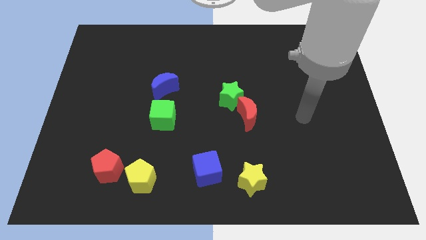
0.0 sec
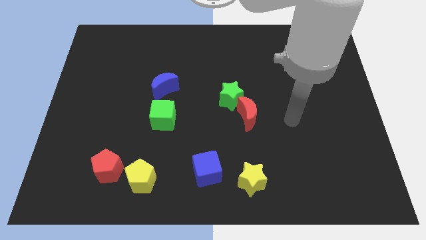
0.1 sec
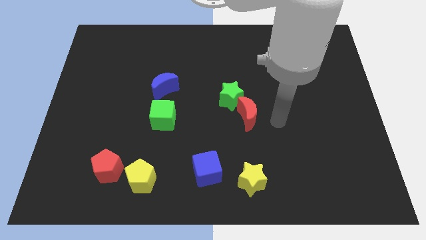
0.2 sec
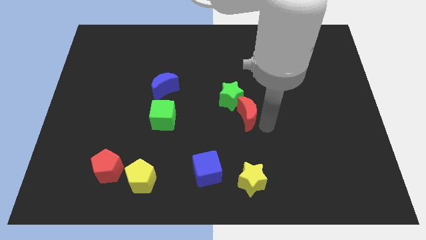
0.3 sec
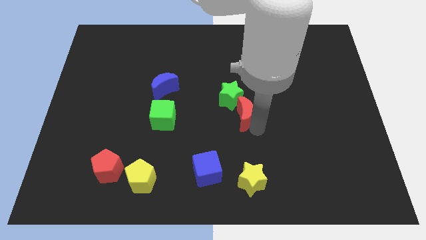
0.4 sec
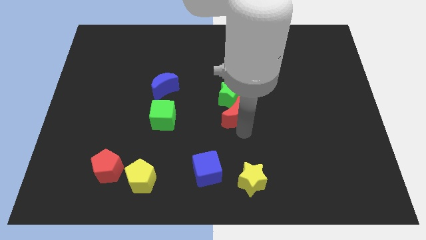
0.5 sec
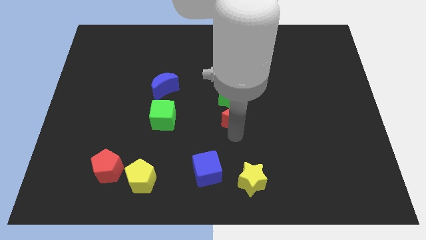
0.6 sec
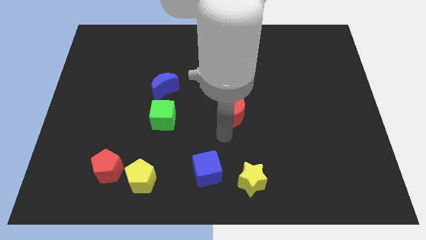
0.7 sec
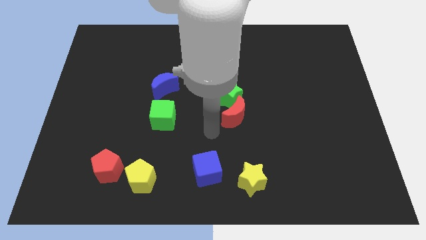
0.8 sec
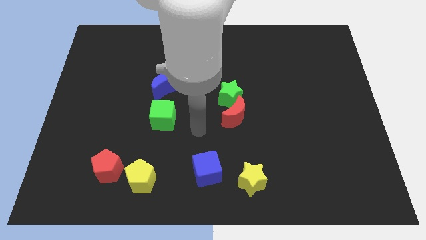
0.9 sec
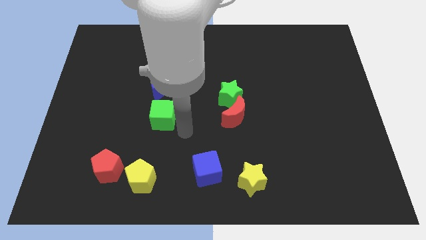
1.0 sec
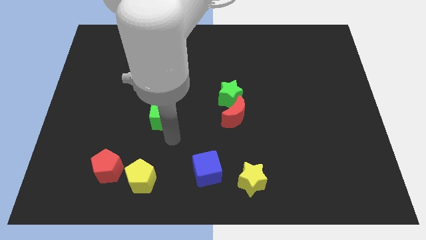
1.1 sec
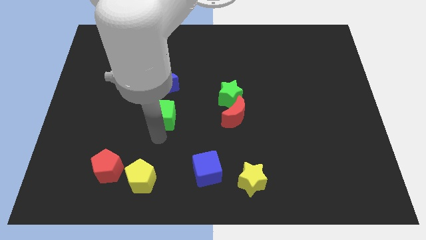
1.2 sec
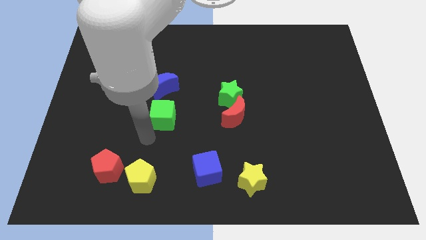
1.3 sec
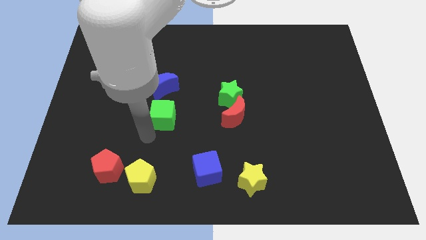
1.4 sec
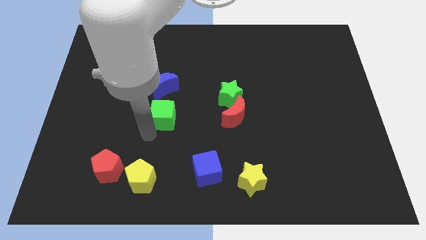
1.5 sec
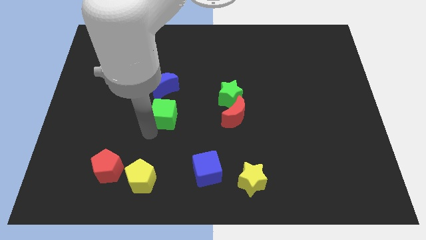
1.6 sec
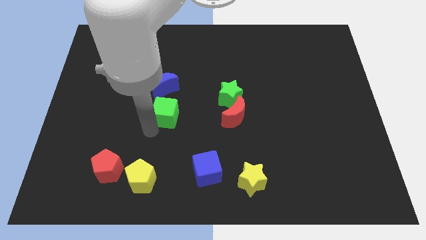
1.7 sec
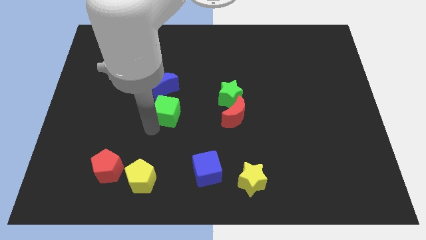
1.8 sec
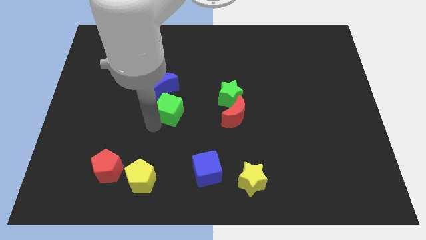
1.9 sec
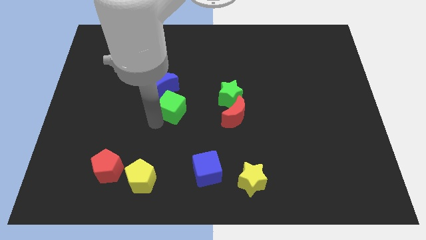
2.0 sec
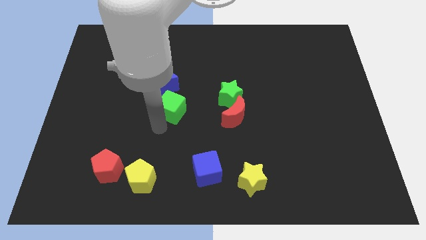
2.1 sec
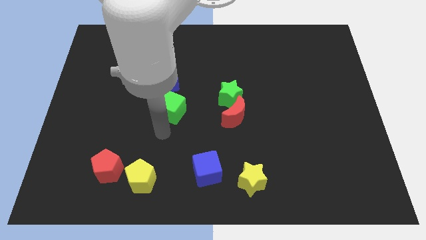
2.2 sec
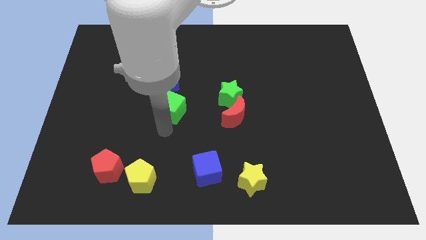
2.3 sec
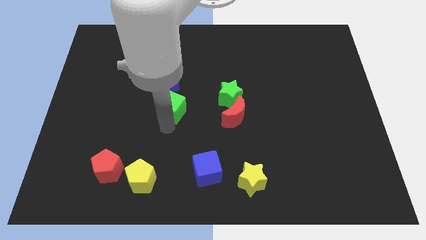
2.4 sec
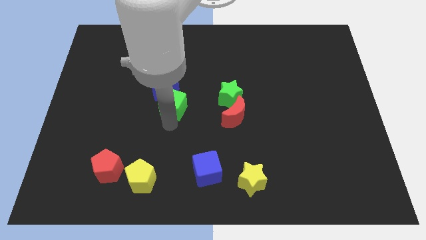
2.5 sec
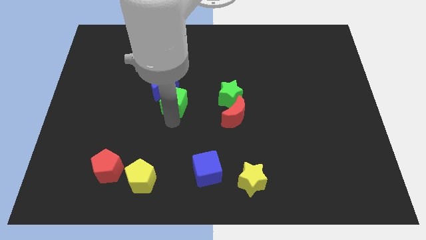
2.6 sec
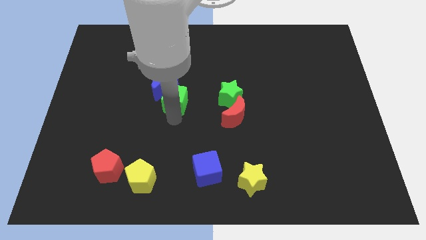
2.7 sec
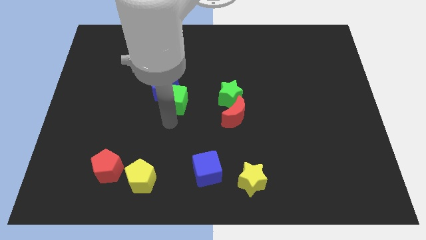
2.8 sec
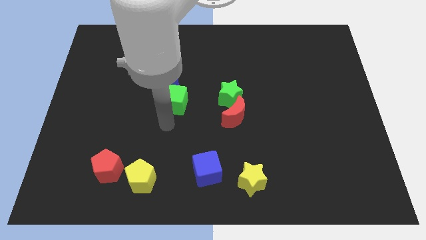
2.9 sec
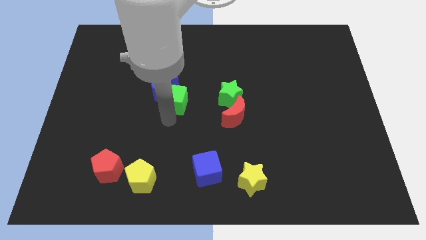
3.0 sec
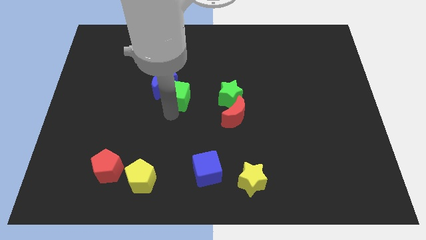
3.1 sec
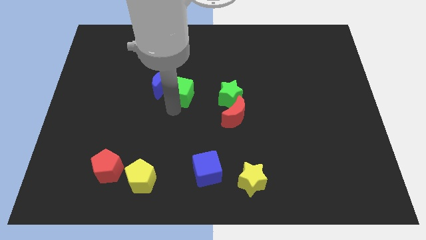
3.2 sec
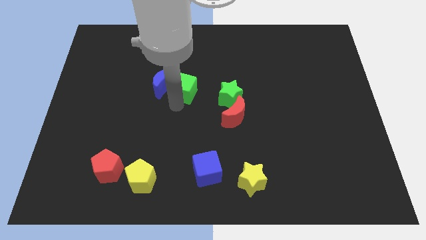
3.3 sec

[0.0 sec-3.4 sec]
slightly push the green cube upwards

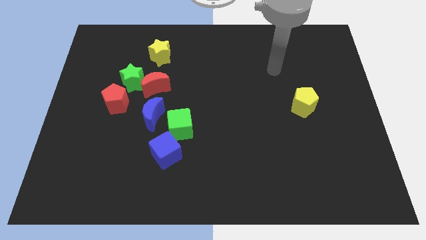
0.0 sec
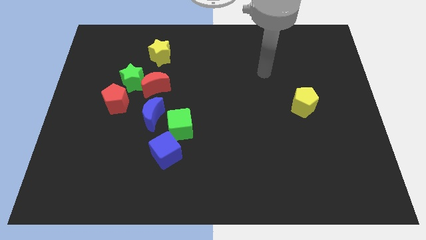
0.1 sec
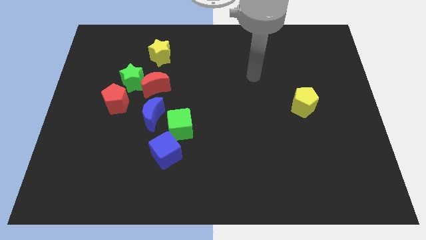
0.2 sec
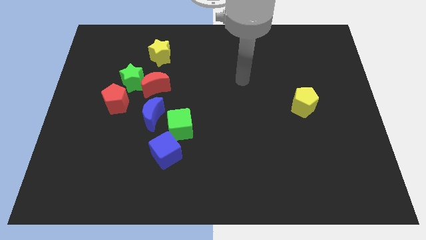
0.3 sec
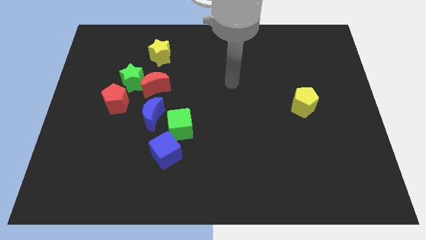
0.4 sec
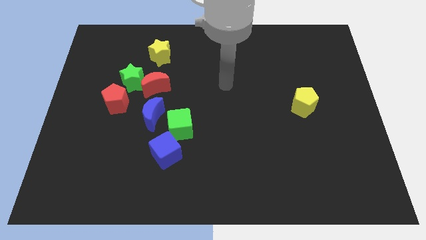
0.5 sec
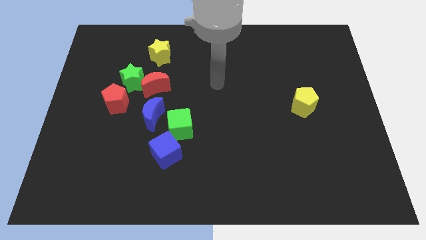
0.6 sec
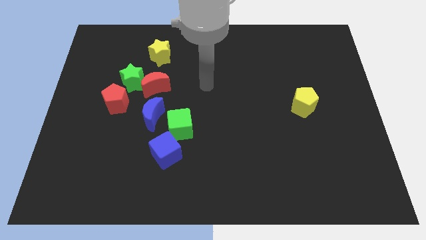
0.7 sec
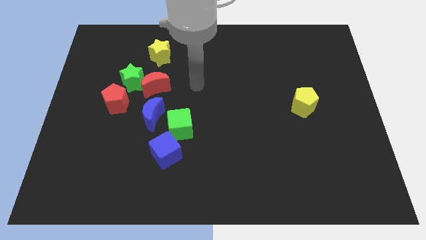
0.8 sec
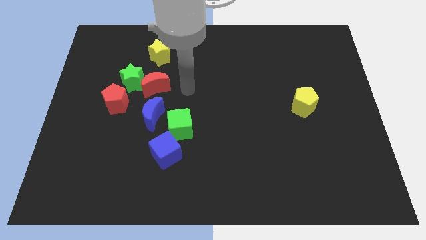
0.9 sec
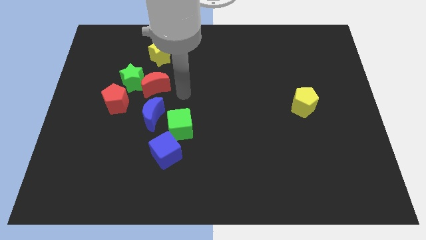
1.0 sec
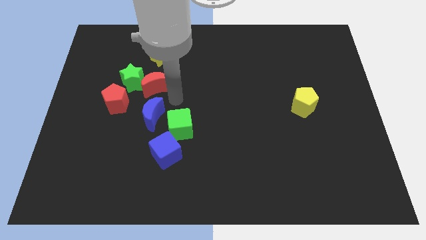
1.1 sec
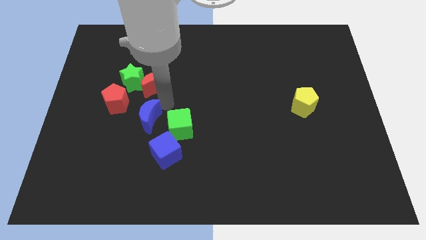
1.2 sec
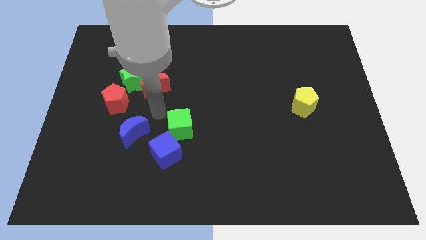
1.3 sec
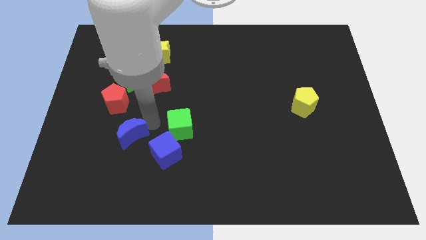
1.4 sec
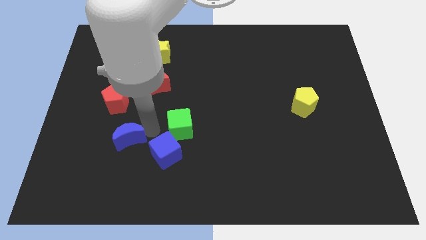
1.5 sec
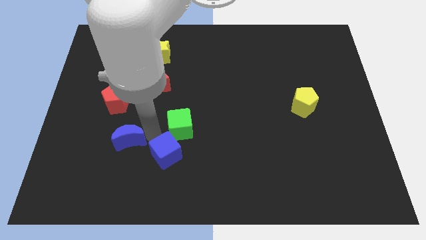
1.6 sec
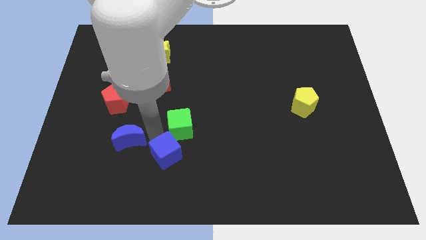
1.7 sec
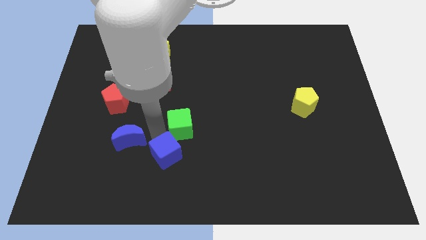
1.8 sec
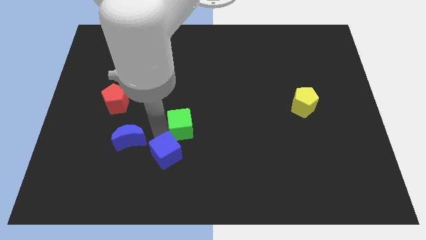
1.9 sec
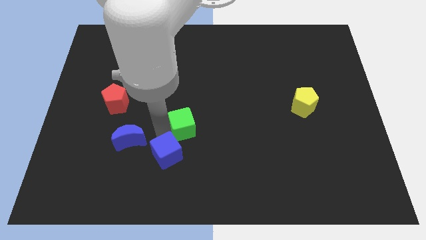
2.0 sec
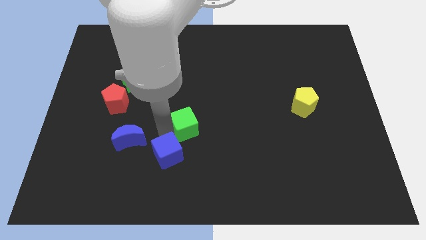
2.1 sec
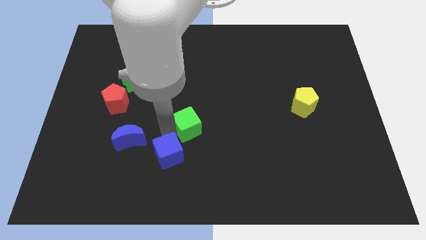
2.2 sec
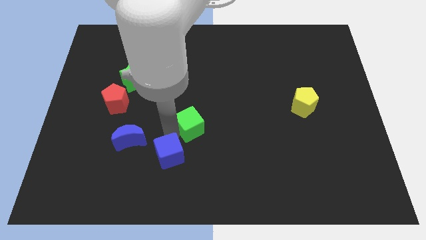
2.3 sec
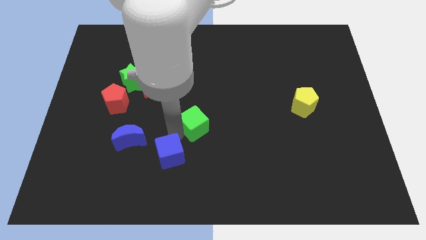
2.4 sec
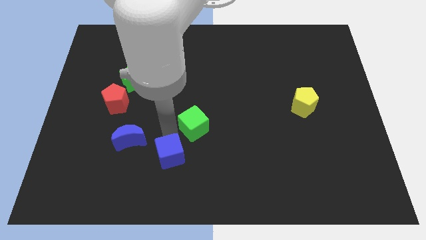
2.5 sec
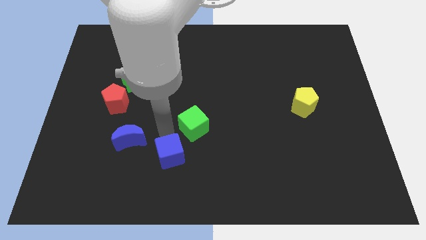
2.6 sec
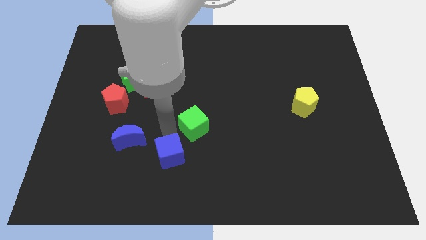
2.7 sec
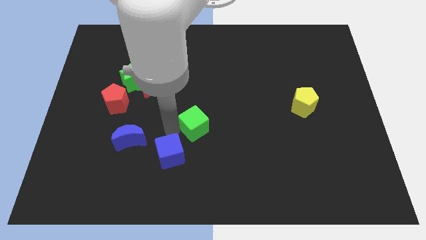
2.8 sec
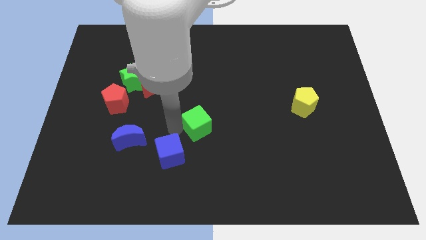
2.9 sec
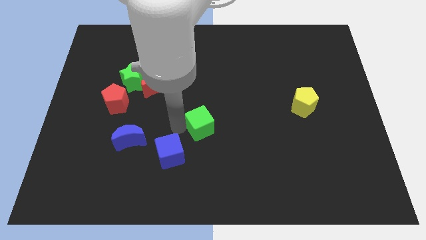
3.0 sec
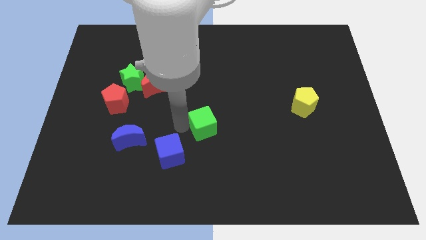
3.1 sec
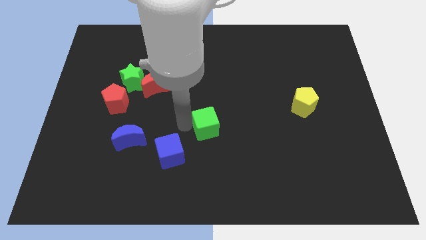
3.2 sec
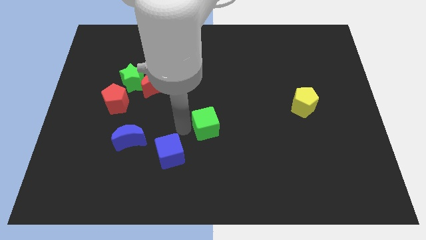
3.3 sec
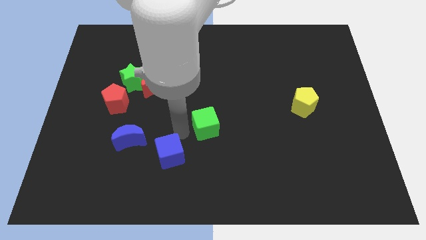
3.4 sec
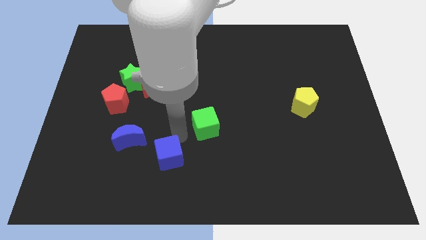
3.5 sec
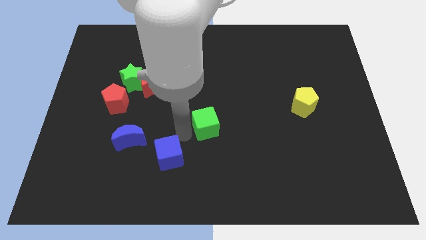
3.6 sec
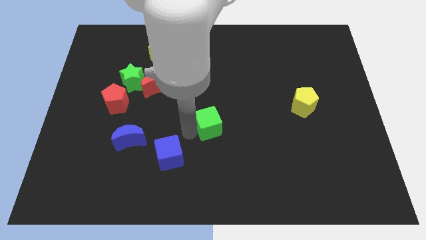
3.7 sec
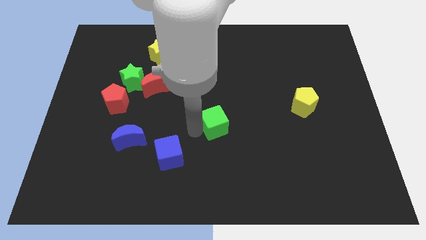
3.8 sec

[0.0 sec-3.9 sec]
move the green cube a little right

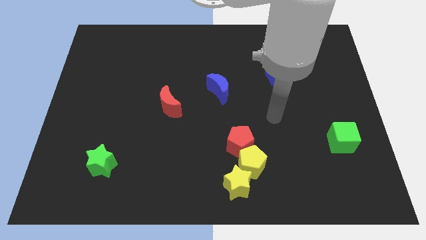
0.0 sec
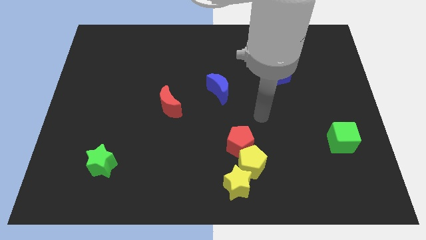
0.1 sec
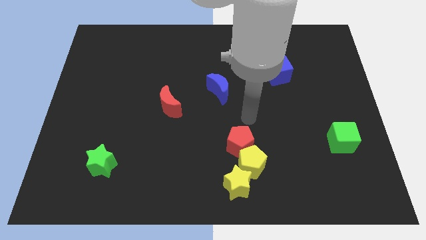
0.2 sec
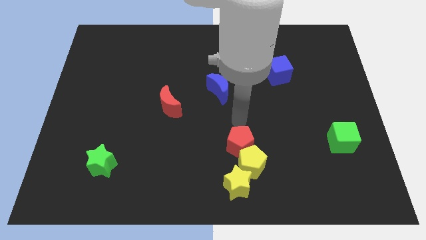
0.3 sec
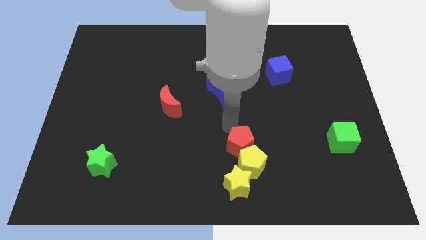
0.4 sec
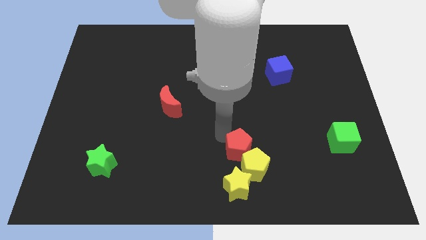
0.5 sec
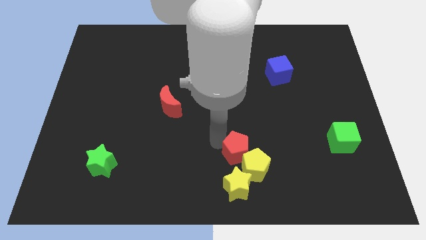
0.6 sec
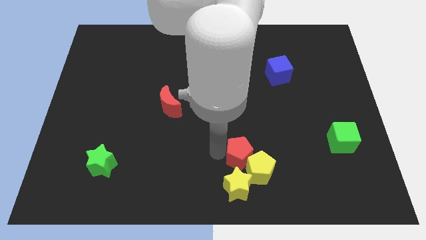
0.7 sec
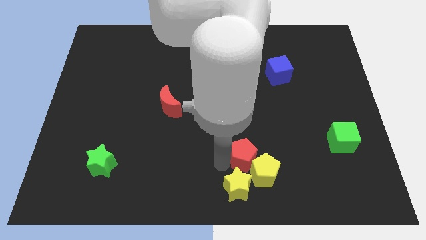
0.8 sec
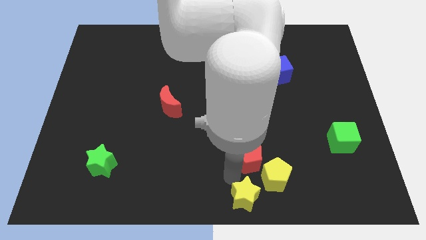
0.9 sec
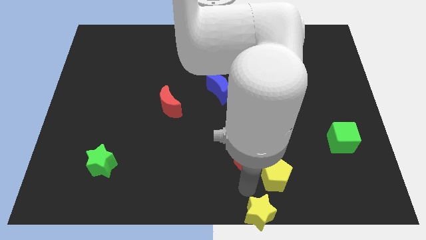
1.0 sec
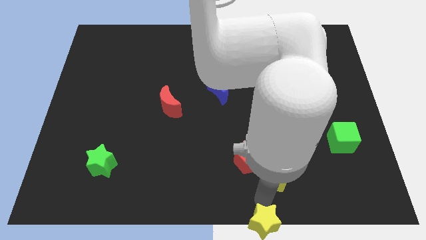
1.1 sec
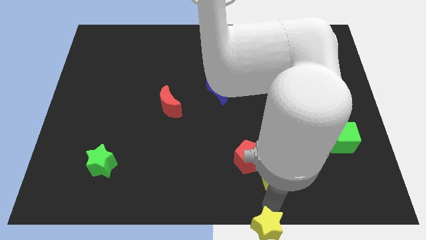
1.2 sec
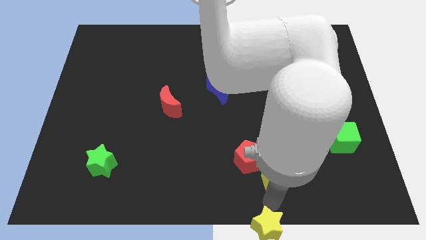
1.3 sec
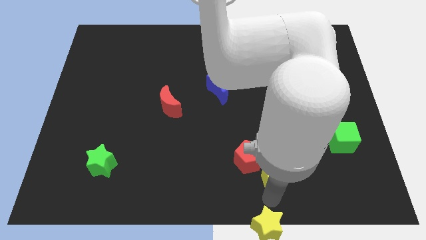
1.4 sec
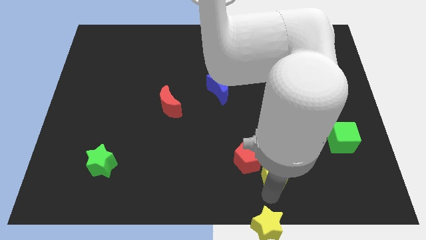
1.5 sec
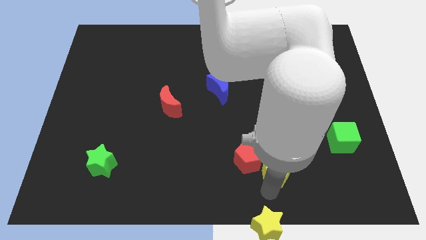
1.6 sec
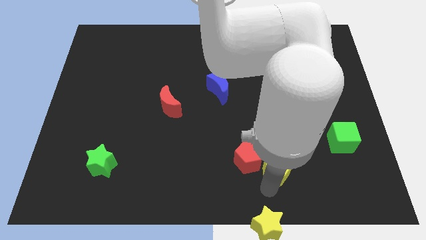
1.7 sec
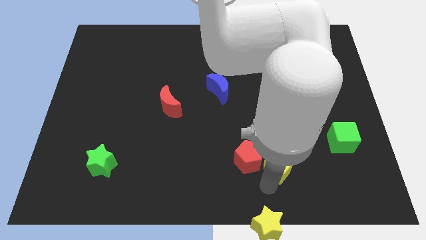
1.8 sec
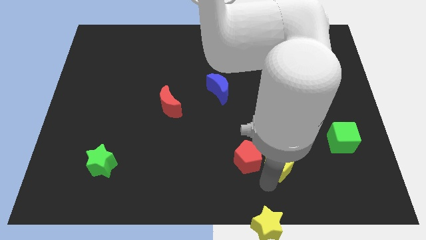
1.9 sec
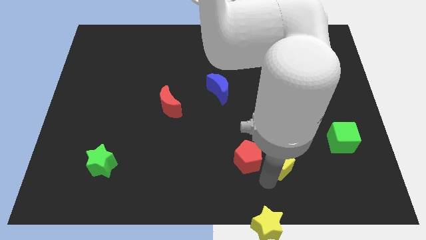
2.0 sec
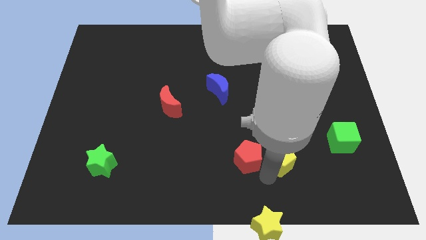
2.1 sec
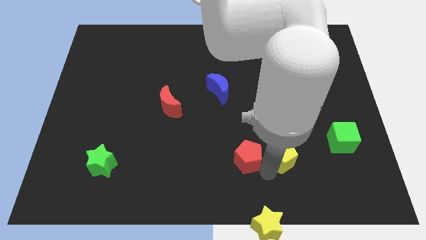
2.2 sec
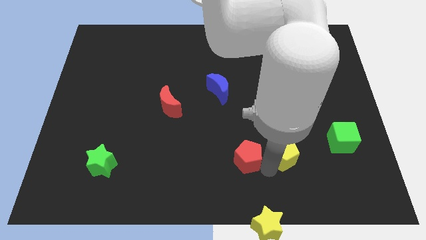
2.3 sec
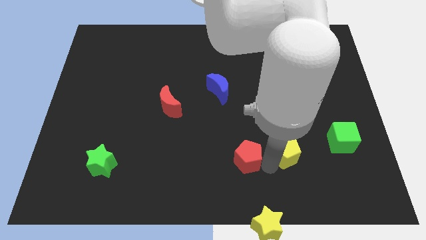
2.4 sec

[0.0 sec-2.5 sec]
slightly move the yellow pentagon up and right diagonally
